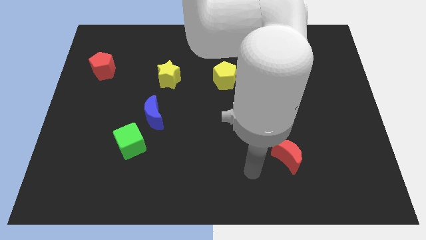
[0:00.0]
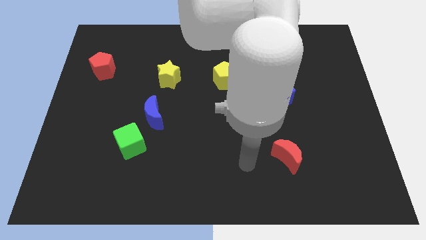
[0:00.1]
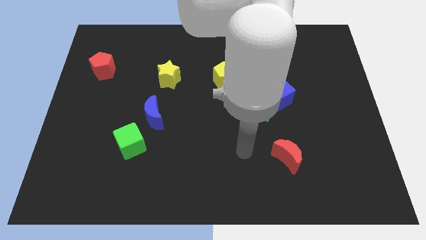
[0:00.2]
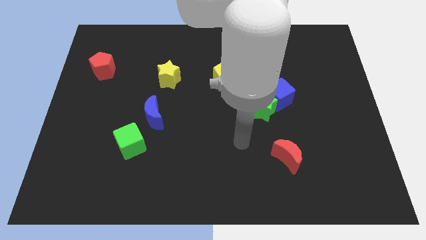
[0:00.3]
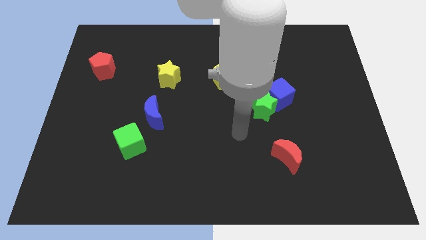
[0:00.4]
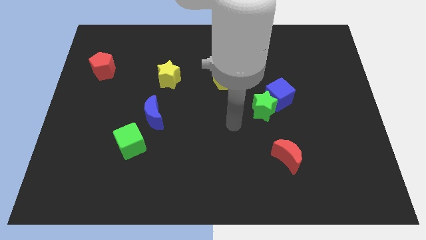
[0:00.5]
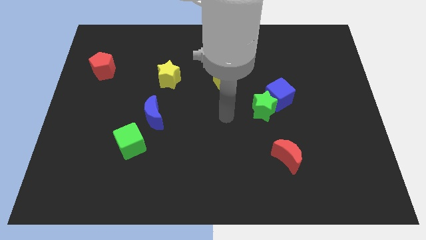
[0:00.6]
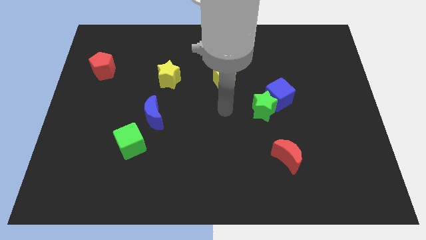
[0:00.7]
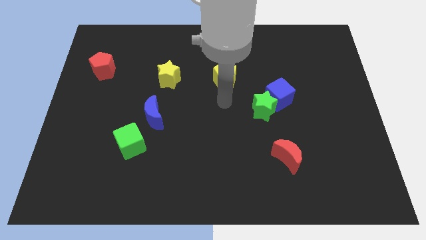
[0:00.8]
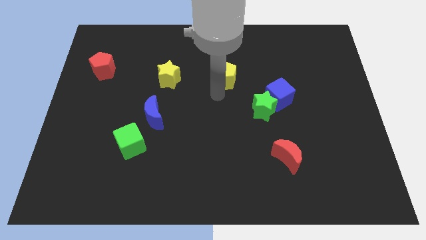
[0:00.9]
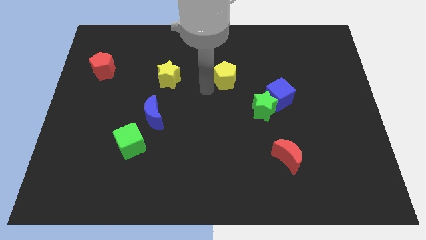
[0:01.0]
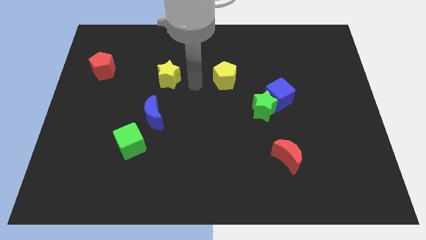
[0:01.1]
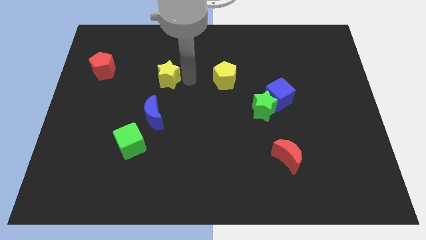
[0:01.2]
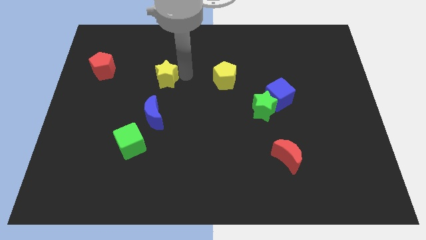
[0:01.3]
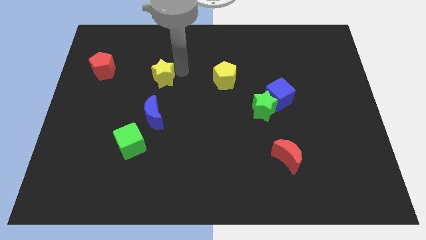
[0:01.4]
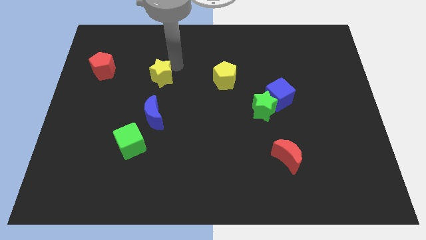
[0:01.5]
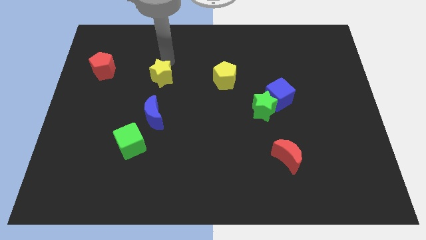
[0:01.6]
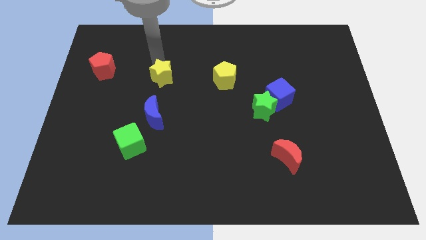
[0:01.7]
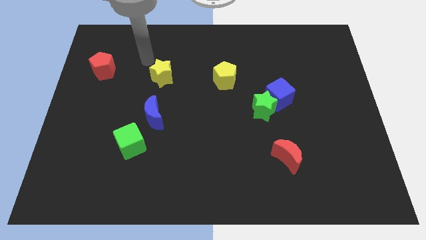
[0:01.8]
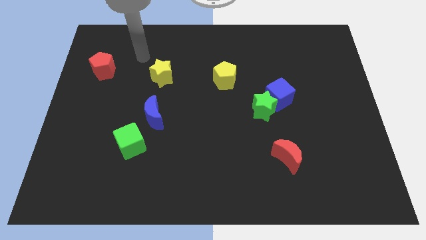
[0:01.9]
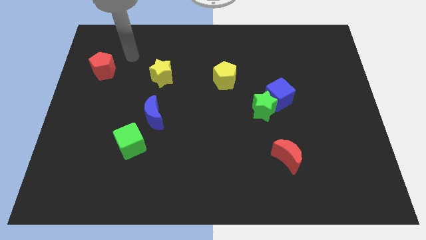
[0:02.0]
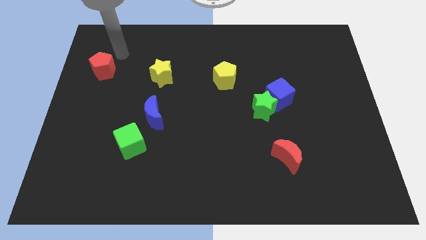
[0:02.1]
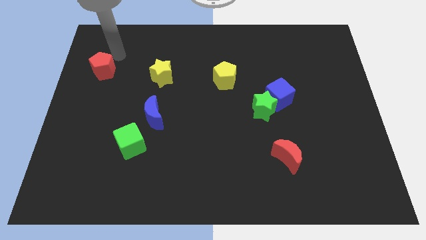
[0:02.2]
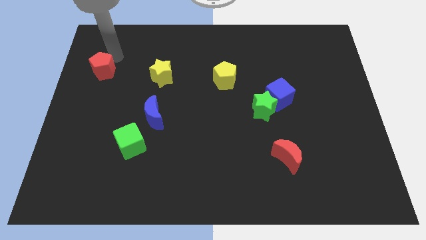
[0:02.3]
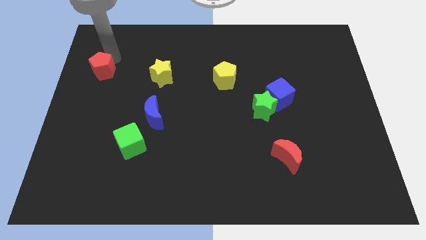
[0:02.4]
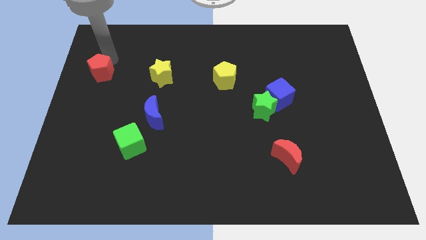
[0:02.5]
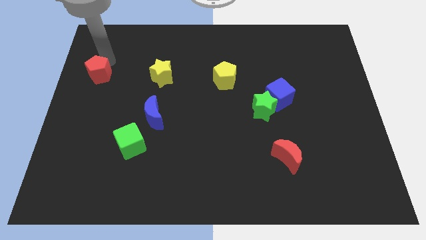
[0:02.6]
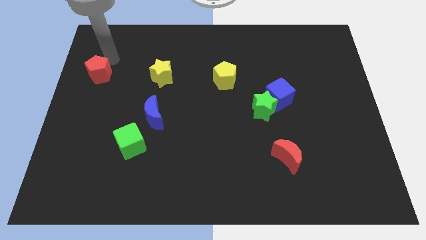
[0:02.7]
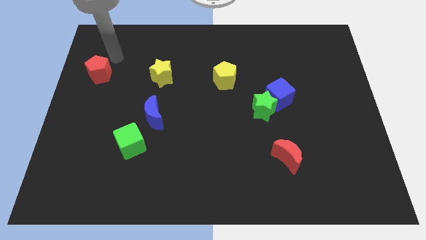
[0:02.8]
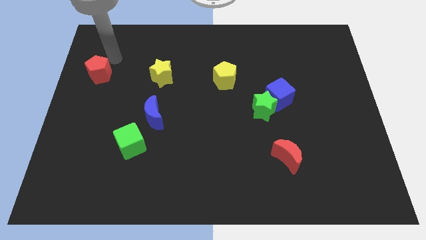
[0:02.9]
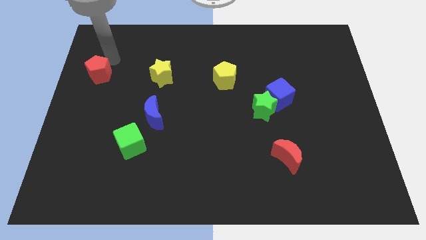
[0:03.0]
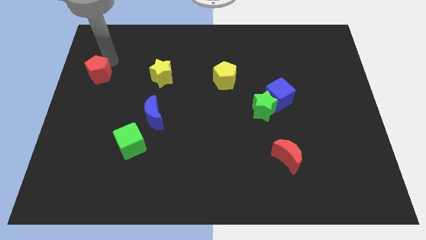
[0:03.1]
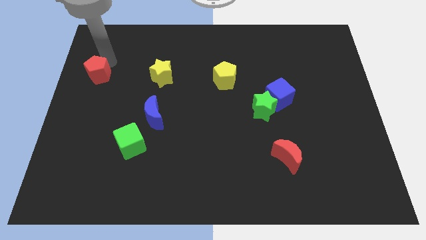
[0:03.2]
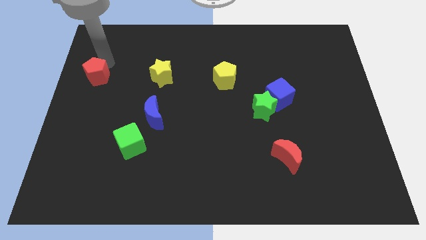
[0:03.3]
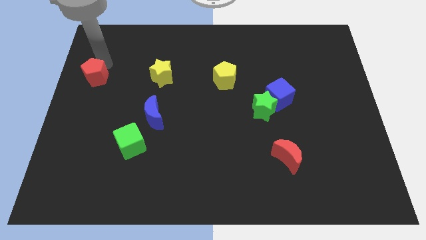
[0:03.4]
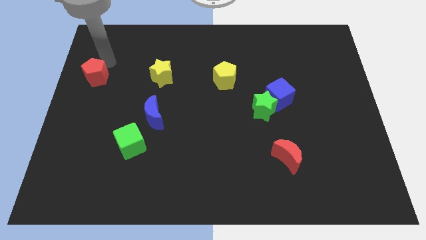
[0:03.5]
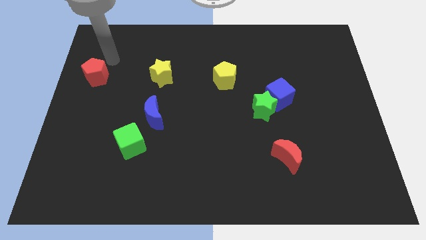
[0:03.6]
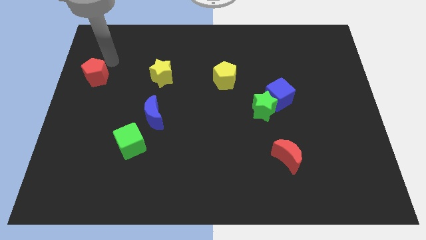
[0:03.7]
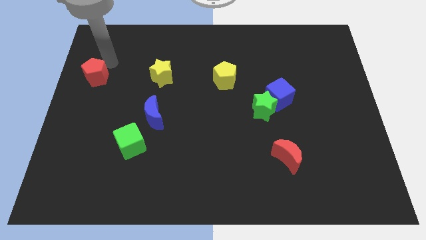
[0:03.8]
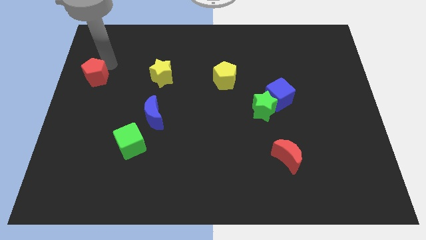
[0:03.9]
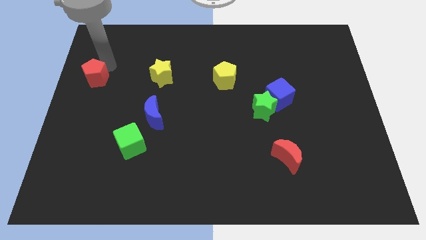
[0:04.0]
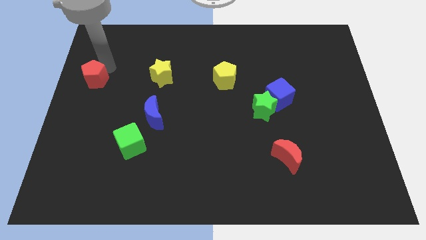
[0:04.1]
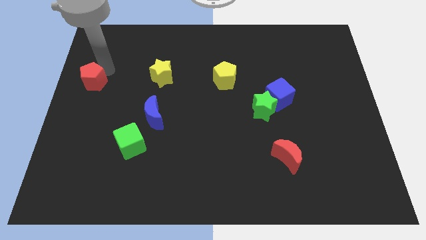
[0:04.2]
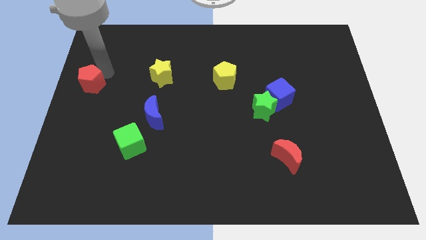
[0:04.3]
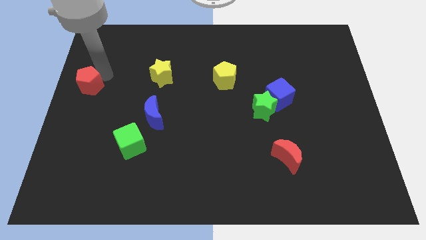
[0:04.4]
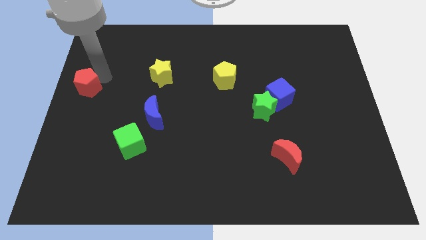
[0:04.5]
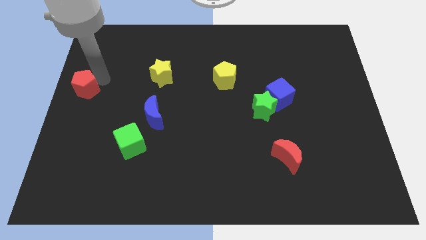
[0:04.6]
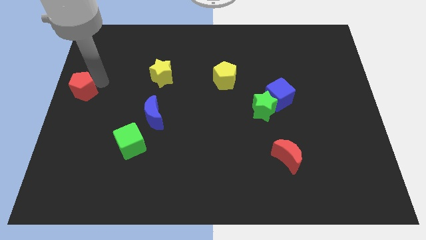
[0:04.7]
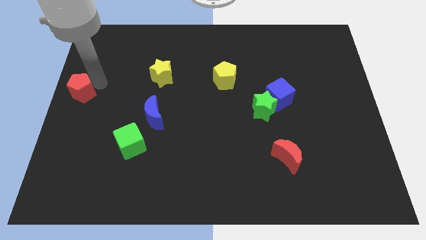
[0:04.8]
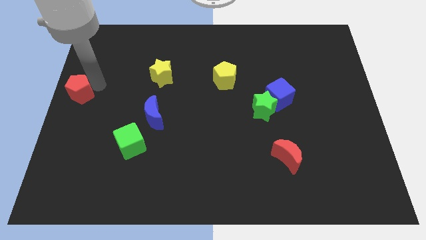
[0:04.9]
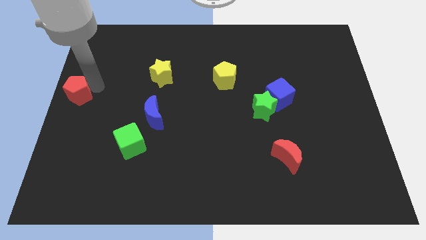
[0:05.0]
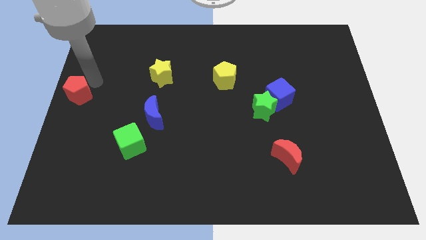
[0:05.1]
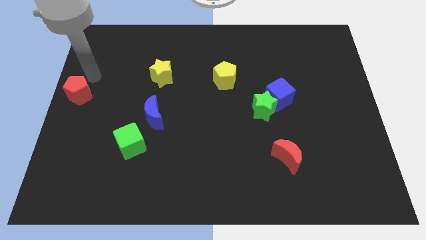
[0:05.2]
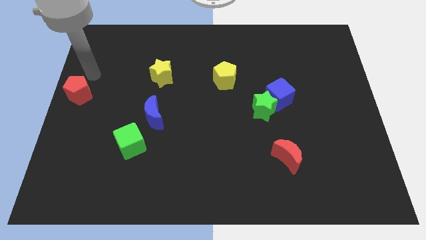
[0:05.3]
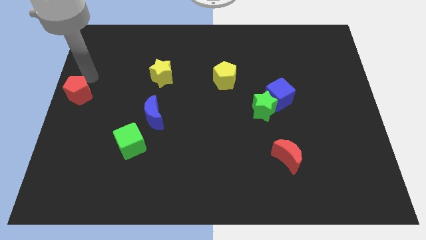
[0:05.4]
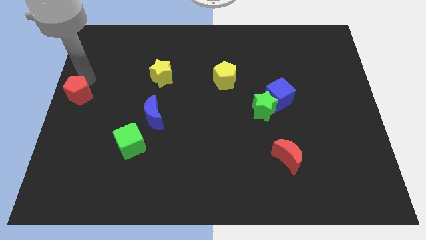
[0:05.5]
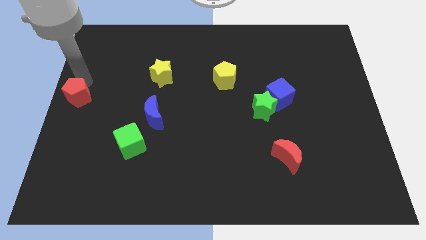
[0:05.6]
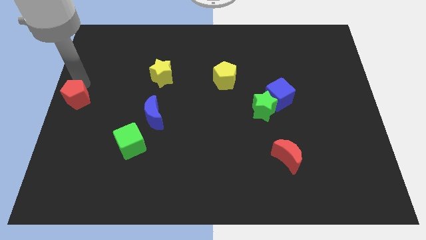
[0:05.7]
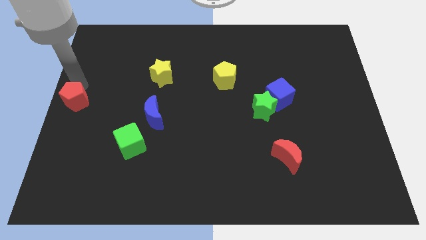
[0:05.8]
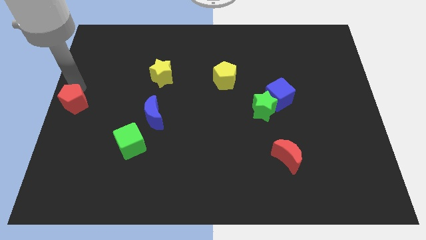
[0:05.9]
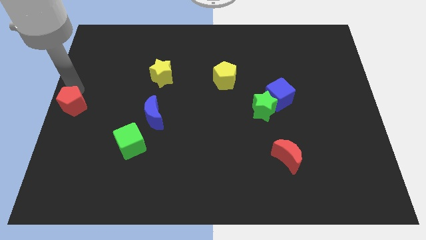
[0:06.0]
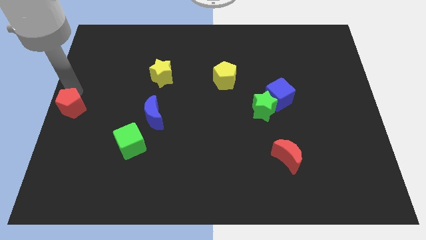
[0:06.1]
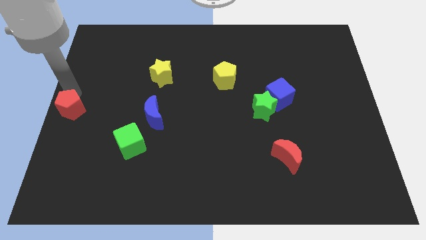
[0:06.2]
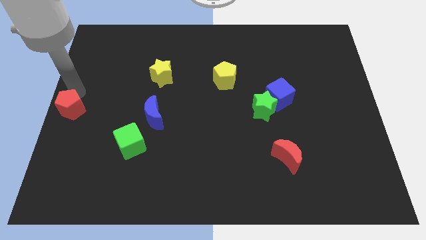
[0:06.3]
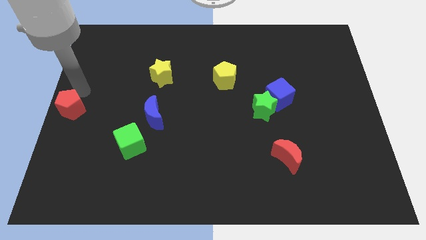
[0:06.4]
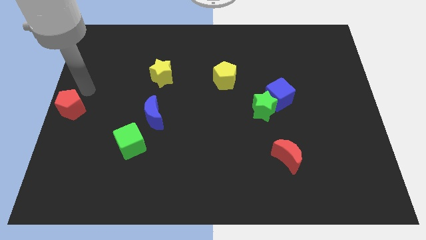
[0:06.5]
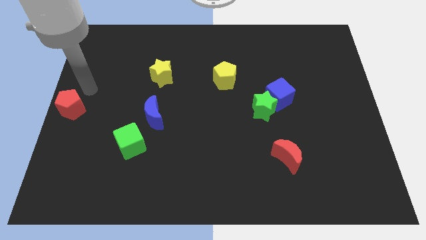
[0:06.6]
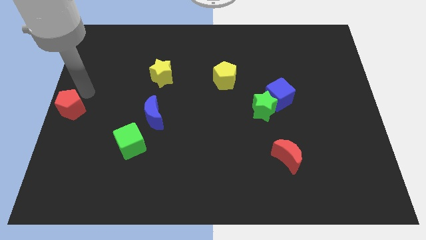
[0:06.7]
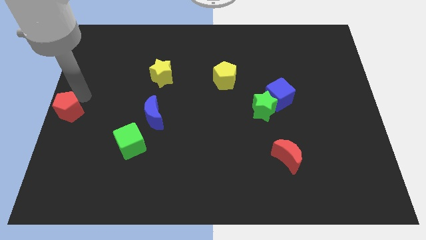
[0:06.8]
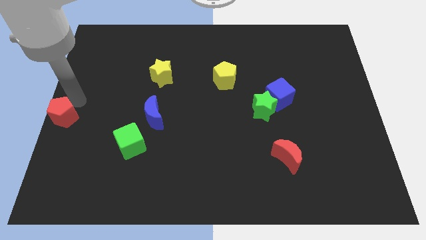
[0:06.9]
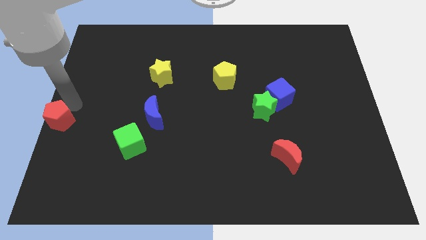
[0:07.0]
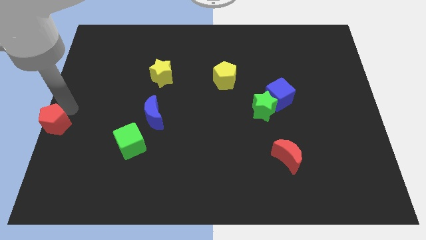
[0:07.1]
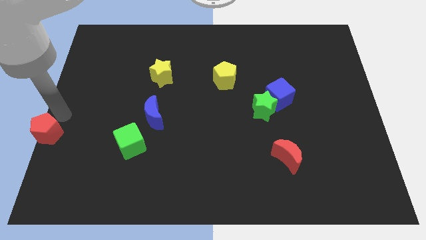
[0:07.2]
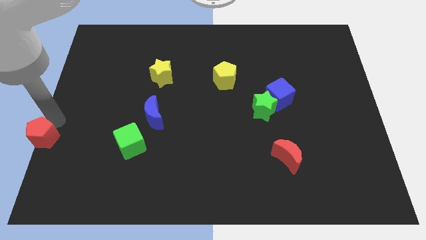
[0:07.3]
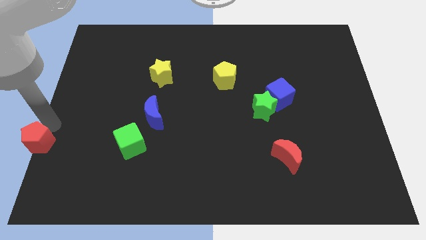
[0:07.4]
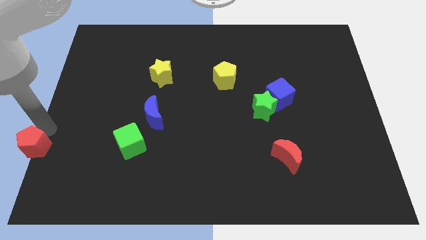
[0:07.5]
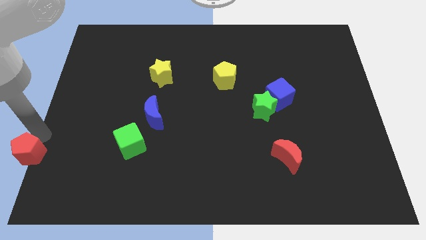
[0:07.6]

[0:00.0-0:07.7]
push the red pentagon to the bottom left corner
